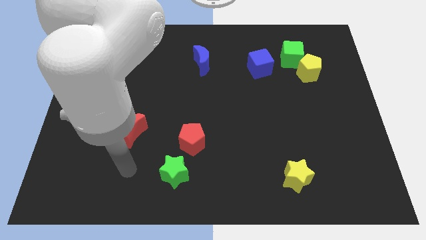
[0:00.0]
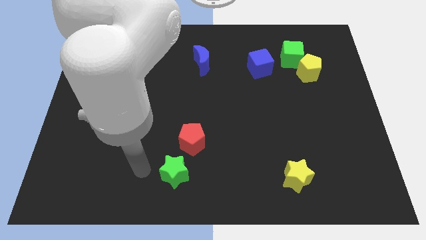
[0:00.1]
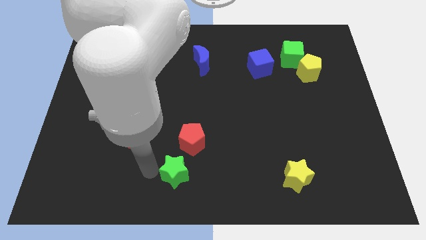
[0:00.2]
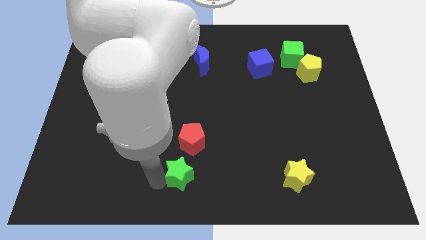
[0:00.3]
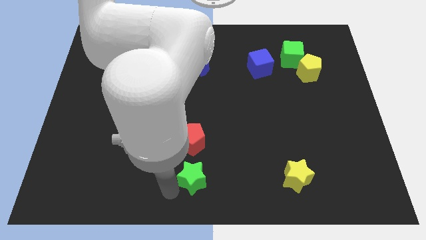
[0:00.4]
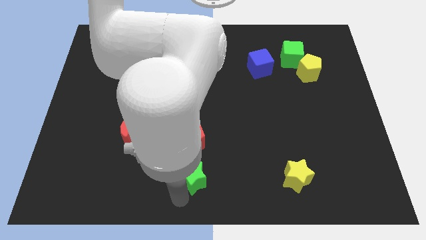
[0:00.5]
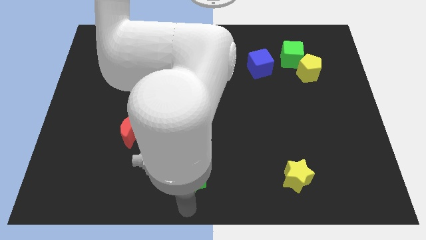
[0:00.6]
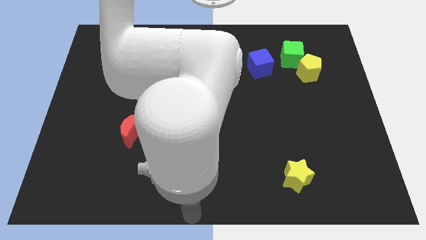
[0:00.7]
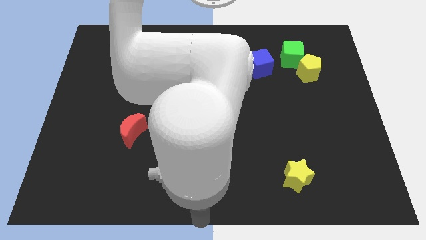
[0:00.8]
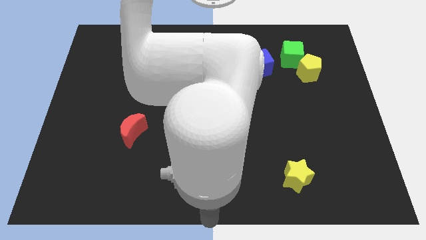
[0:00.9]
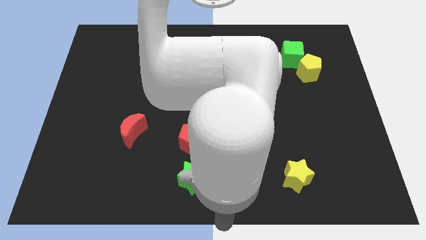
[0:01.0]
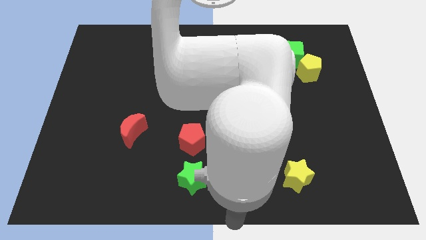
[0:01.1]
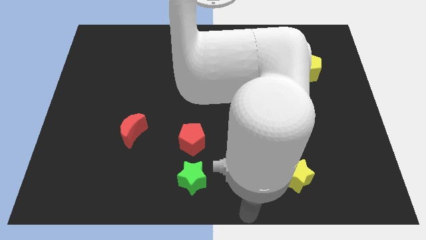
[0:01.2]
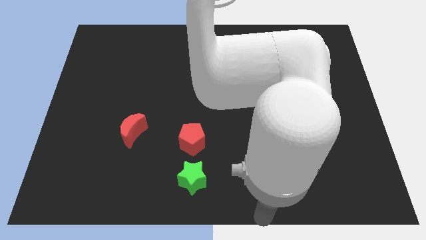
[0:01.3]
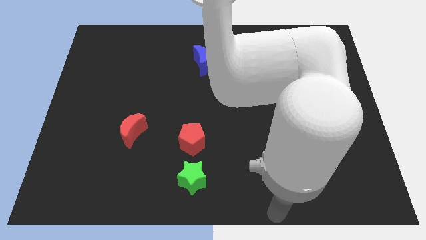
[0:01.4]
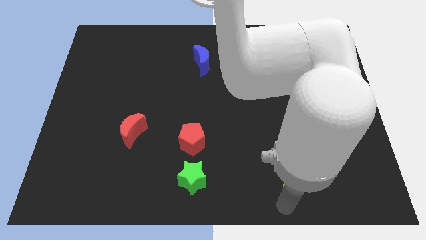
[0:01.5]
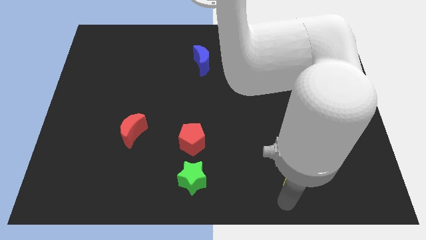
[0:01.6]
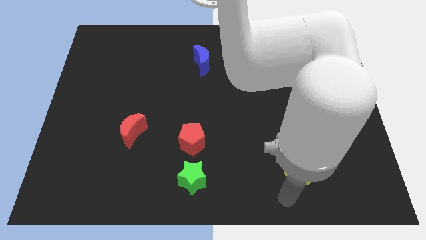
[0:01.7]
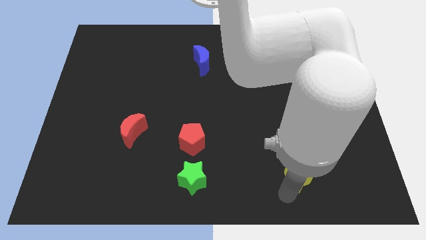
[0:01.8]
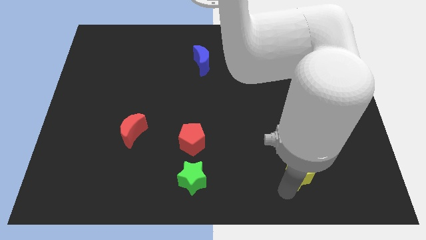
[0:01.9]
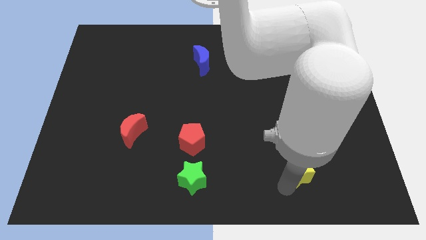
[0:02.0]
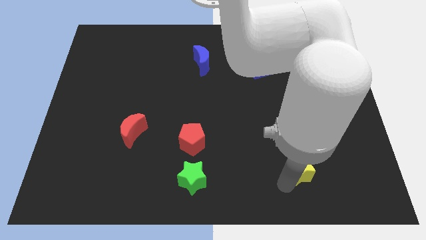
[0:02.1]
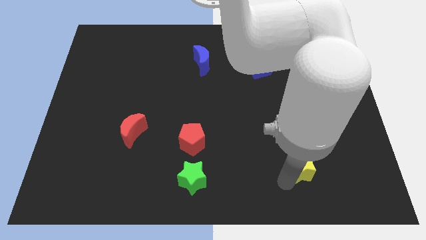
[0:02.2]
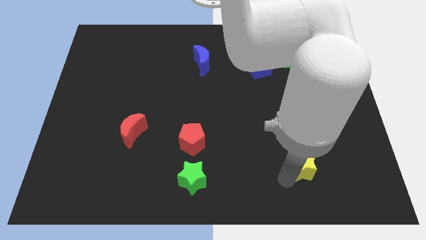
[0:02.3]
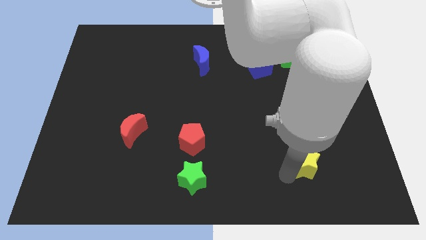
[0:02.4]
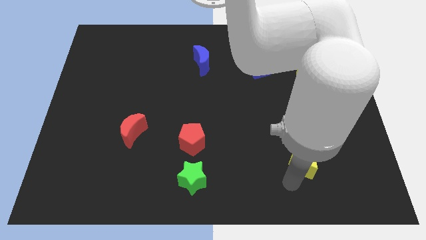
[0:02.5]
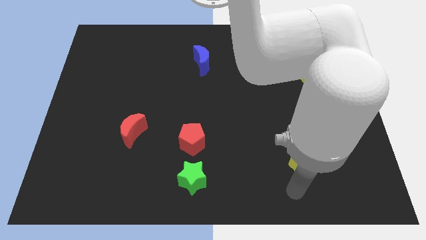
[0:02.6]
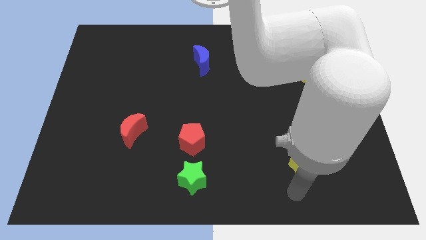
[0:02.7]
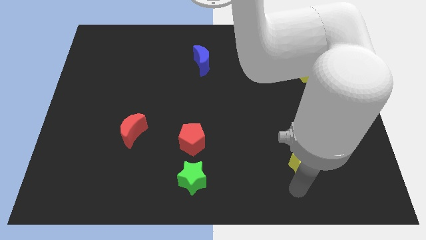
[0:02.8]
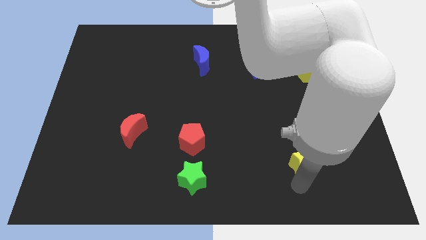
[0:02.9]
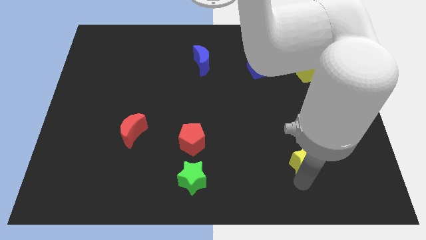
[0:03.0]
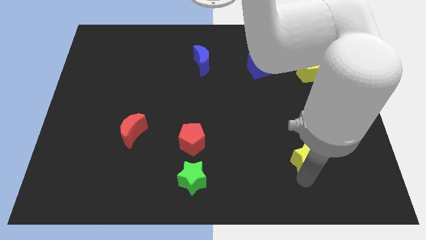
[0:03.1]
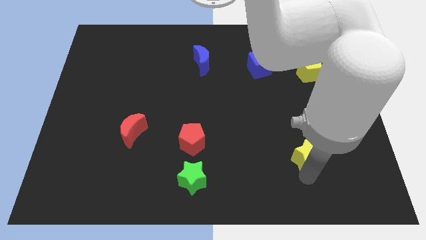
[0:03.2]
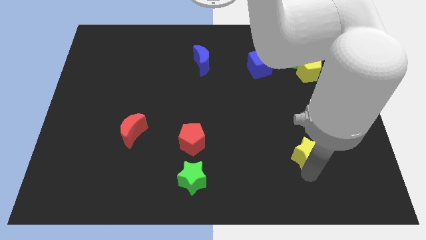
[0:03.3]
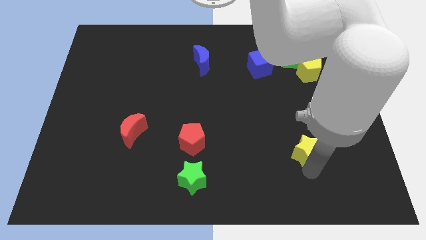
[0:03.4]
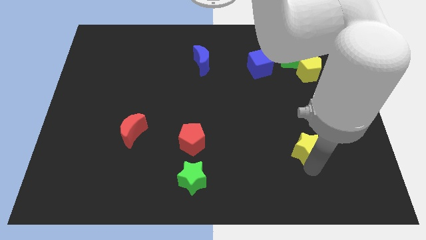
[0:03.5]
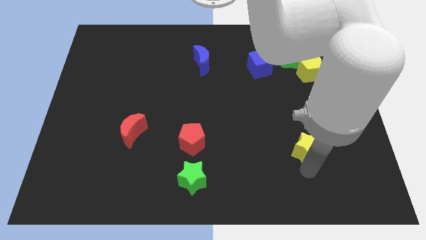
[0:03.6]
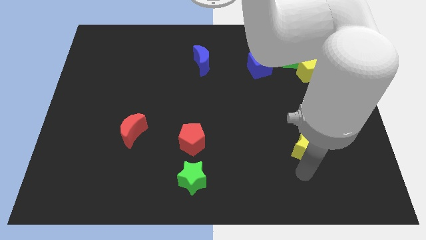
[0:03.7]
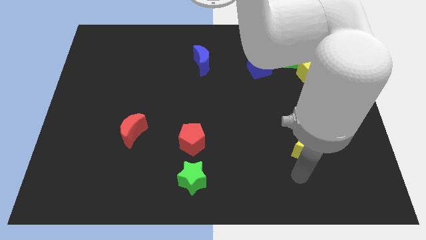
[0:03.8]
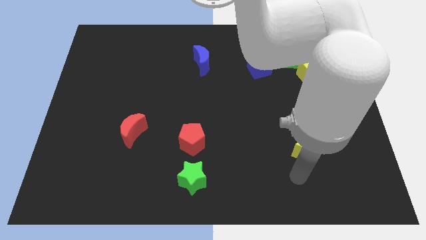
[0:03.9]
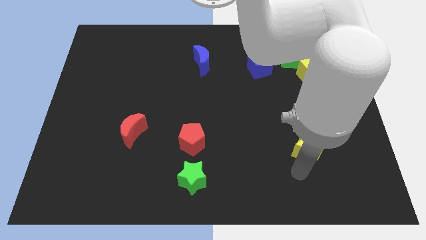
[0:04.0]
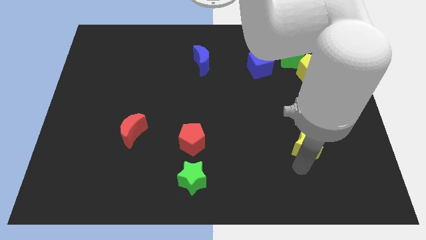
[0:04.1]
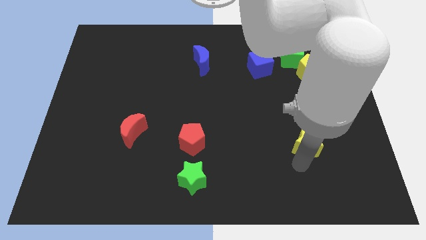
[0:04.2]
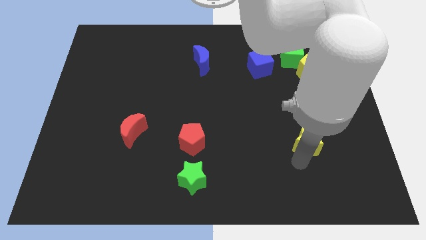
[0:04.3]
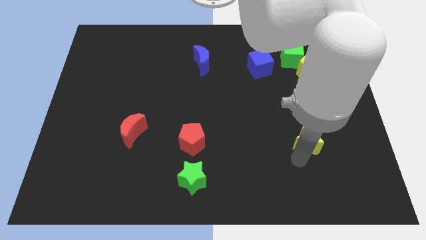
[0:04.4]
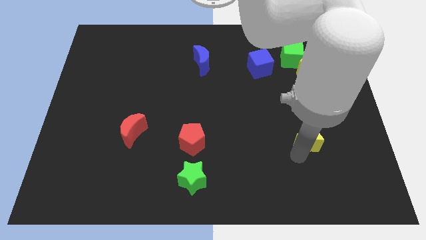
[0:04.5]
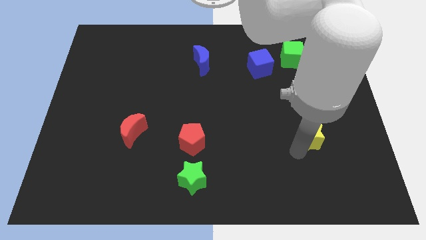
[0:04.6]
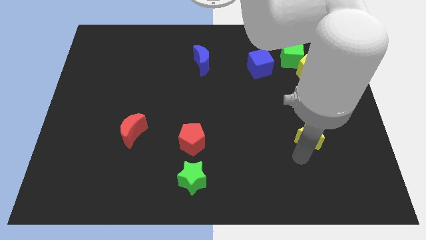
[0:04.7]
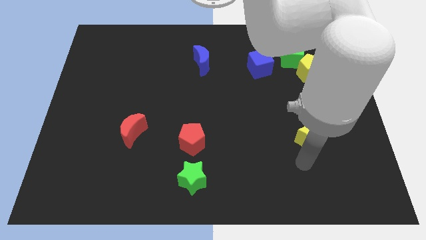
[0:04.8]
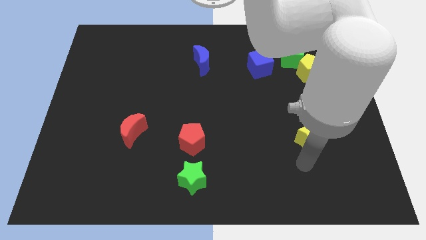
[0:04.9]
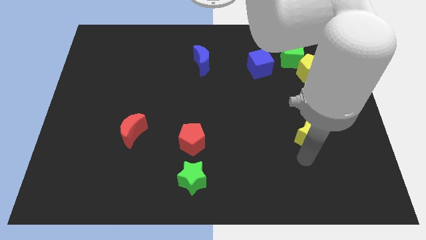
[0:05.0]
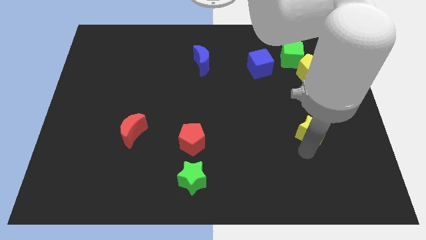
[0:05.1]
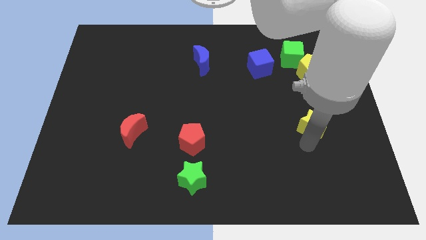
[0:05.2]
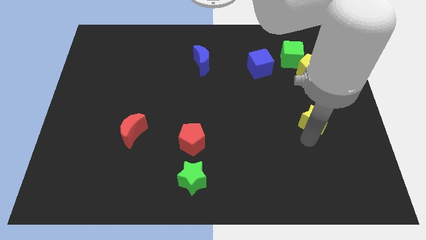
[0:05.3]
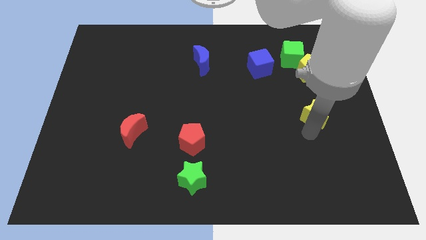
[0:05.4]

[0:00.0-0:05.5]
slide the yellow star below the yellow pentagon

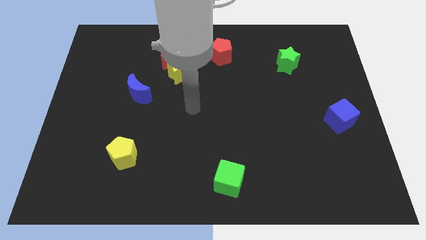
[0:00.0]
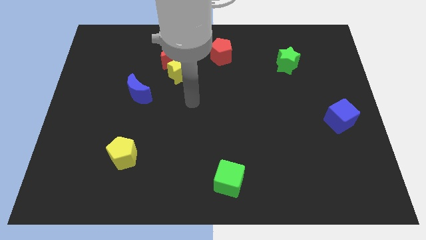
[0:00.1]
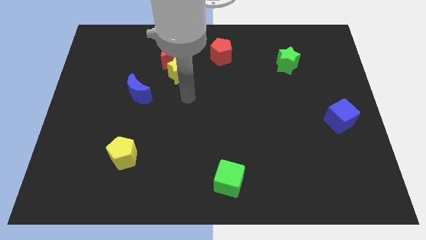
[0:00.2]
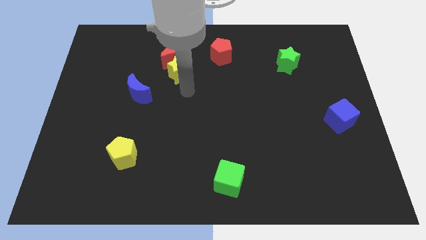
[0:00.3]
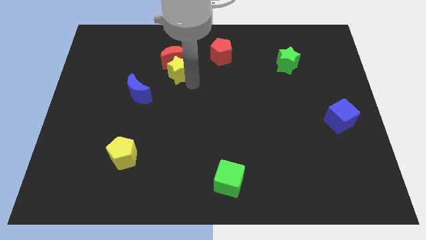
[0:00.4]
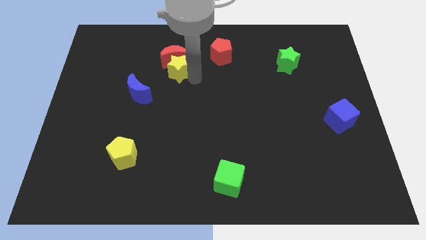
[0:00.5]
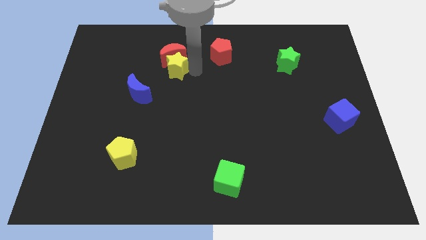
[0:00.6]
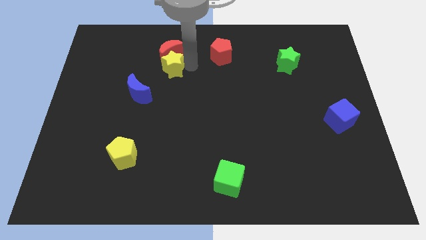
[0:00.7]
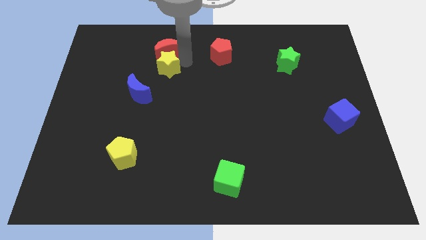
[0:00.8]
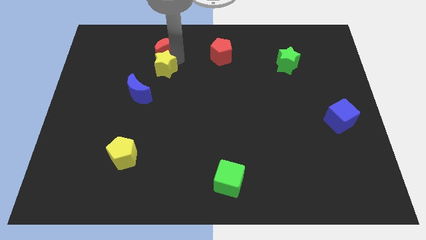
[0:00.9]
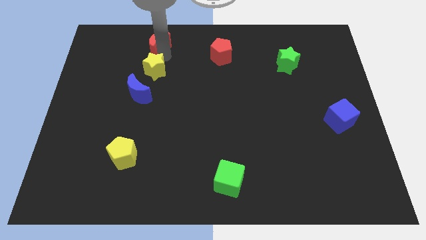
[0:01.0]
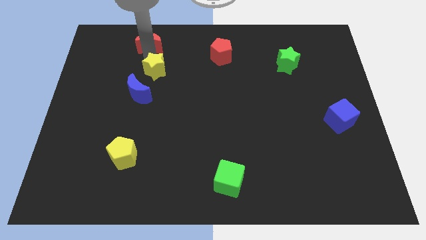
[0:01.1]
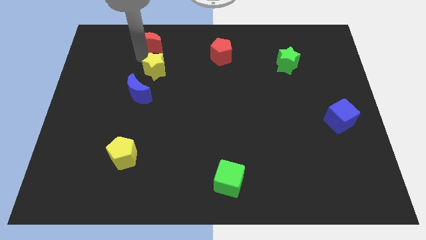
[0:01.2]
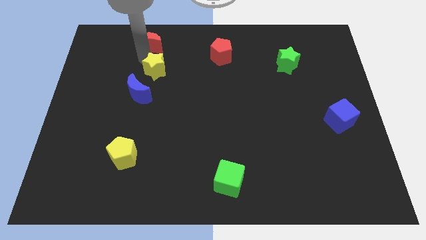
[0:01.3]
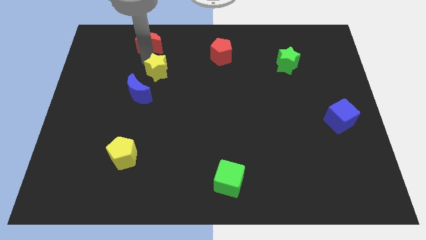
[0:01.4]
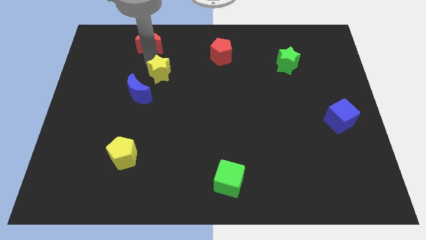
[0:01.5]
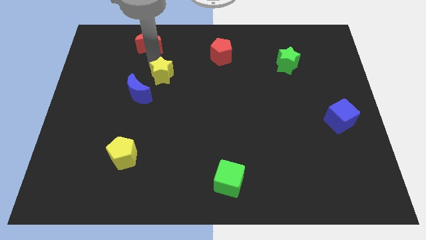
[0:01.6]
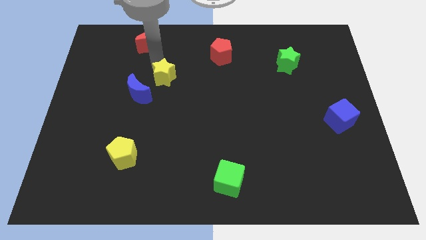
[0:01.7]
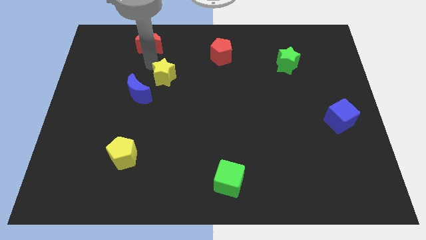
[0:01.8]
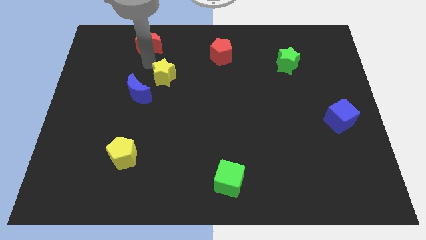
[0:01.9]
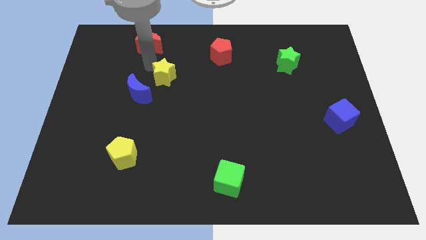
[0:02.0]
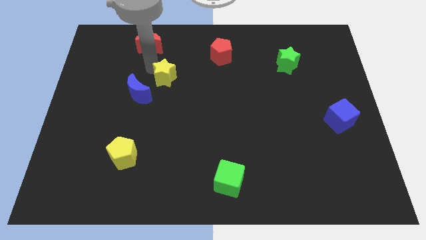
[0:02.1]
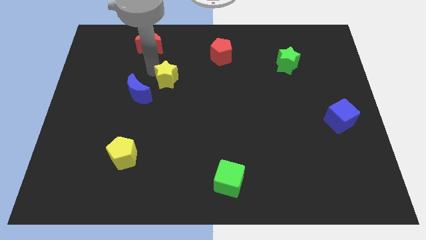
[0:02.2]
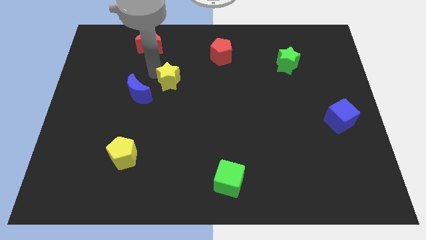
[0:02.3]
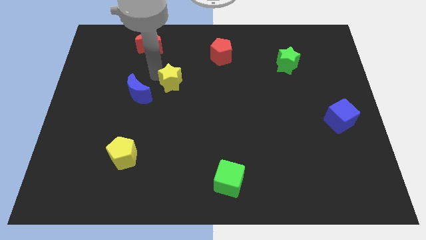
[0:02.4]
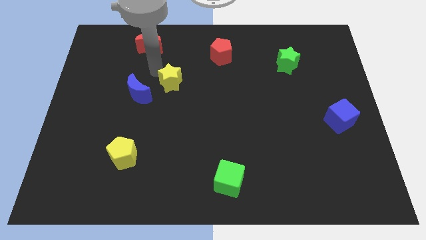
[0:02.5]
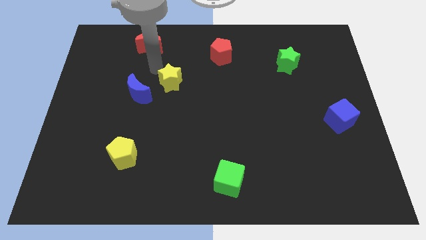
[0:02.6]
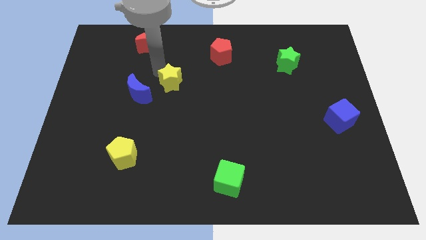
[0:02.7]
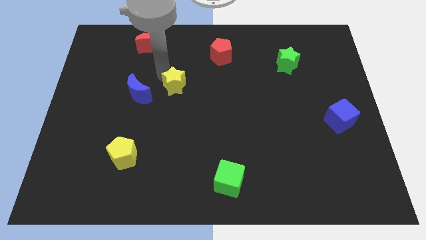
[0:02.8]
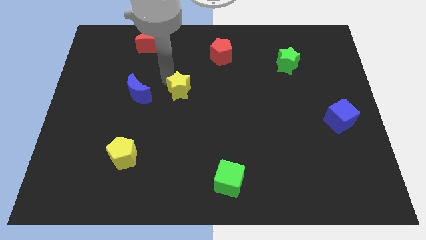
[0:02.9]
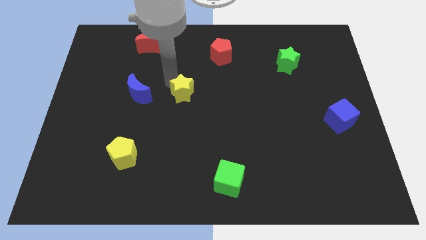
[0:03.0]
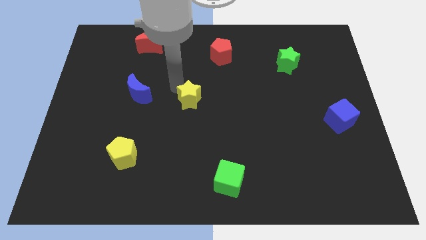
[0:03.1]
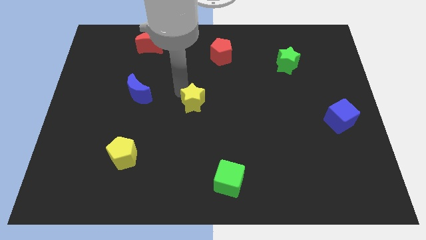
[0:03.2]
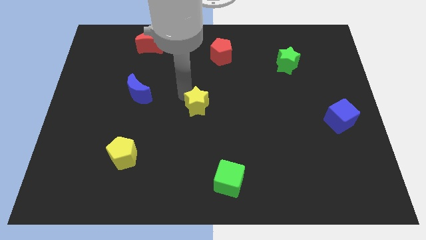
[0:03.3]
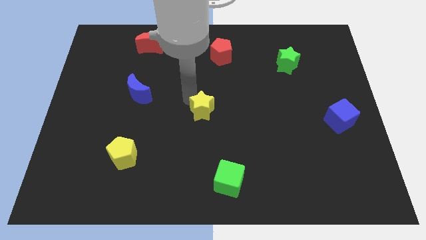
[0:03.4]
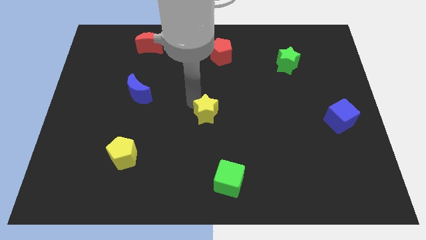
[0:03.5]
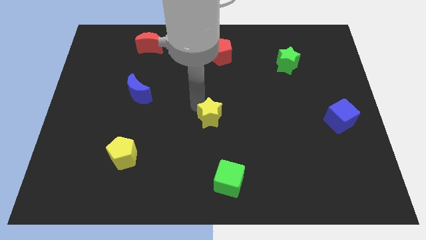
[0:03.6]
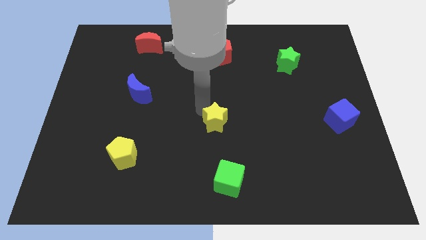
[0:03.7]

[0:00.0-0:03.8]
push the yellow star to the top of the green cube
